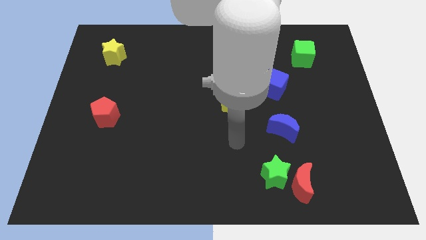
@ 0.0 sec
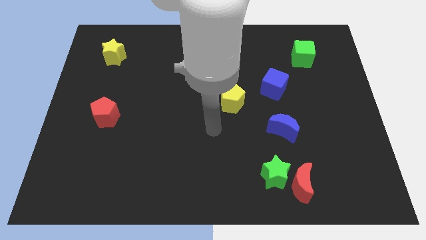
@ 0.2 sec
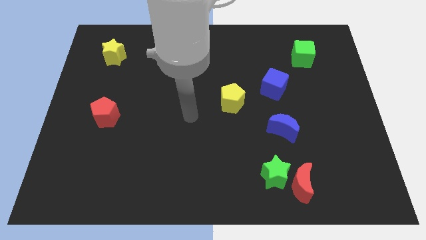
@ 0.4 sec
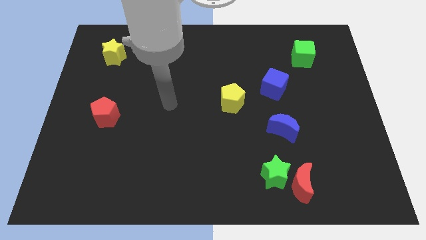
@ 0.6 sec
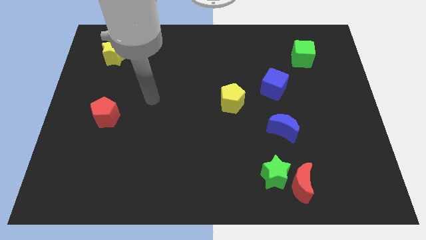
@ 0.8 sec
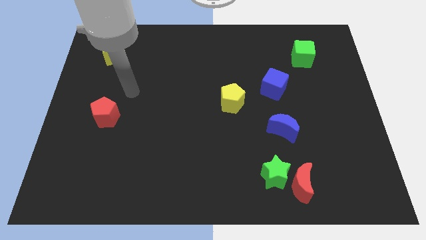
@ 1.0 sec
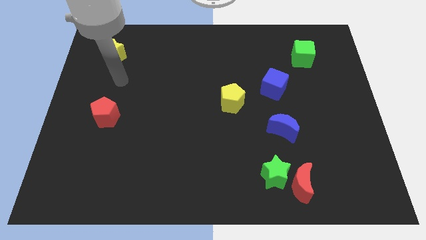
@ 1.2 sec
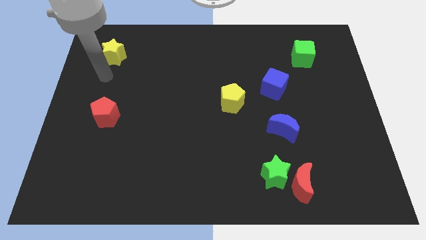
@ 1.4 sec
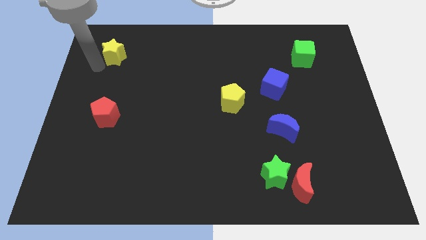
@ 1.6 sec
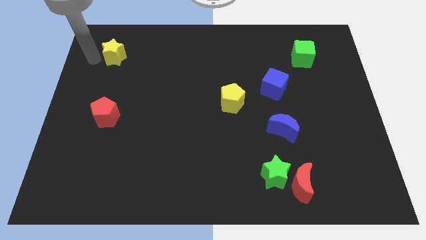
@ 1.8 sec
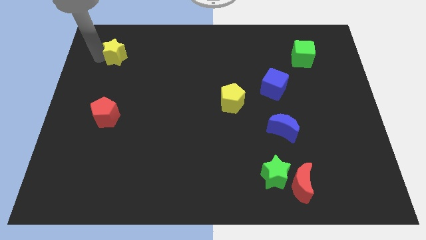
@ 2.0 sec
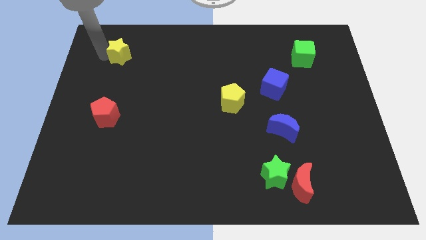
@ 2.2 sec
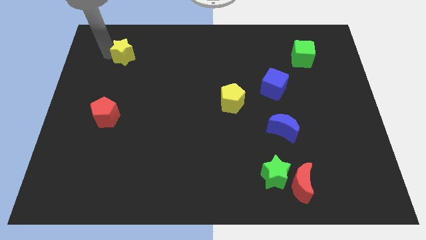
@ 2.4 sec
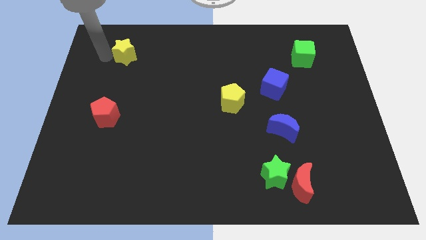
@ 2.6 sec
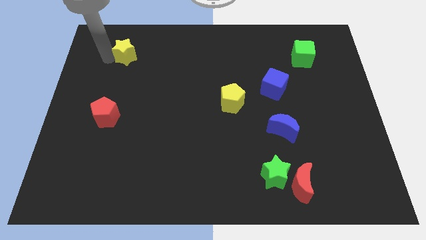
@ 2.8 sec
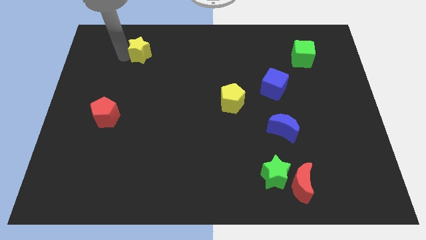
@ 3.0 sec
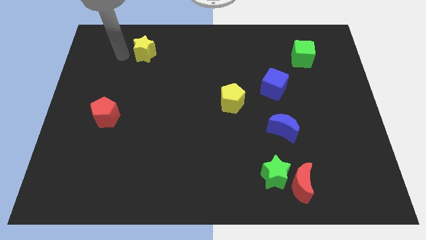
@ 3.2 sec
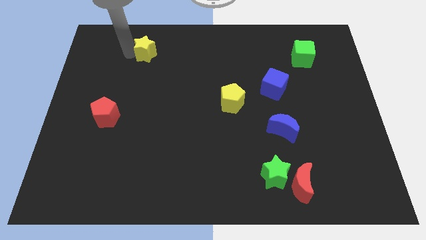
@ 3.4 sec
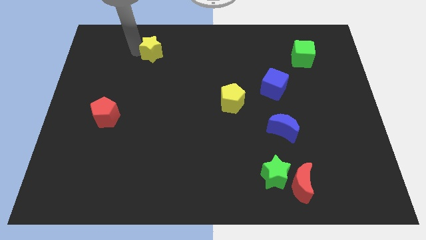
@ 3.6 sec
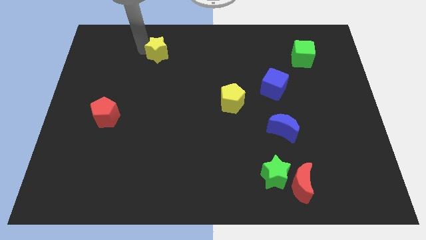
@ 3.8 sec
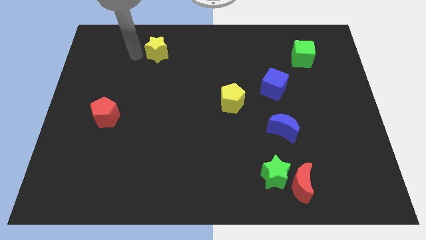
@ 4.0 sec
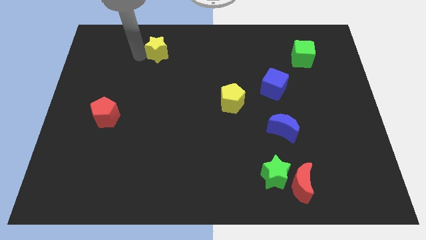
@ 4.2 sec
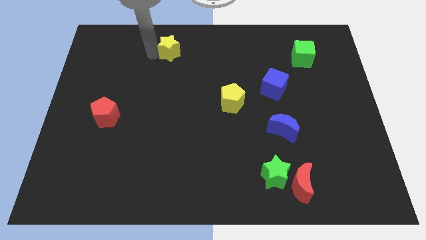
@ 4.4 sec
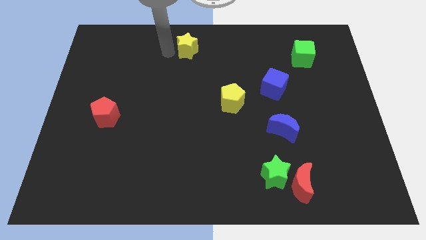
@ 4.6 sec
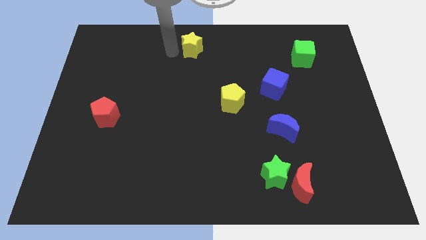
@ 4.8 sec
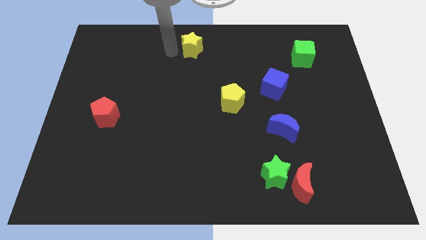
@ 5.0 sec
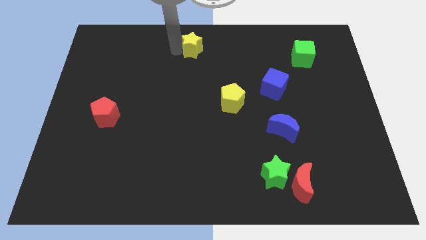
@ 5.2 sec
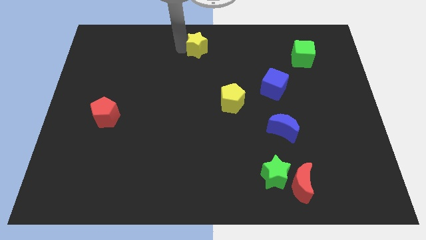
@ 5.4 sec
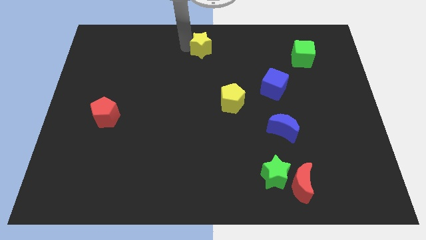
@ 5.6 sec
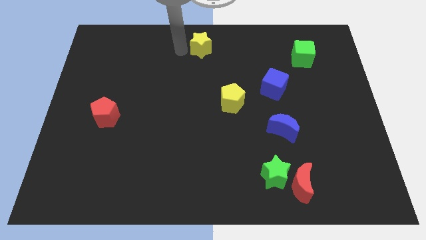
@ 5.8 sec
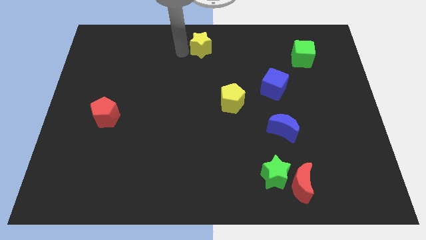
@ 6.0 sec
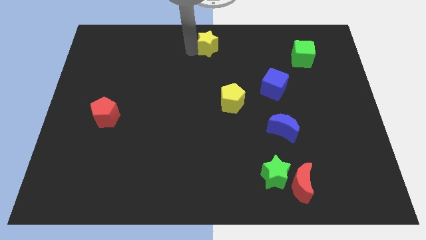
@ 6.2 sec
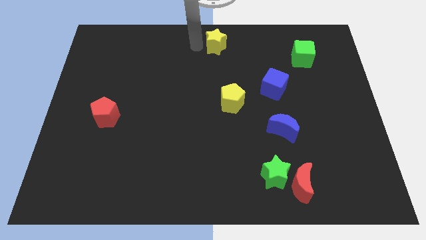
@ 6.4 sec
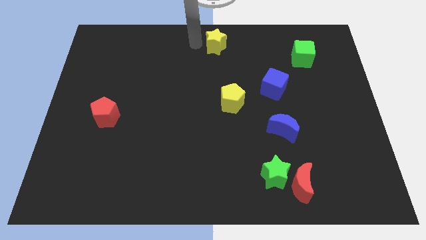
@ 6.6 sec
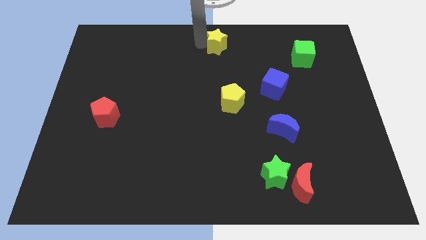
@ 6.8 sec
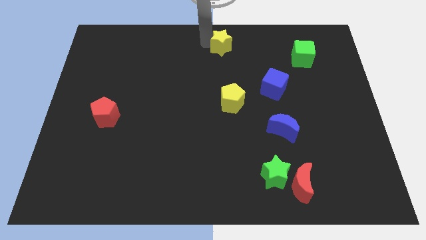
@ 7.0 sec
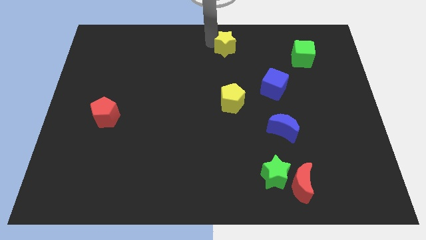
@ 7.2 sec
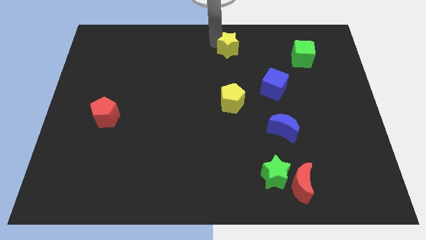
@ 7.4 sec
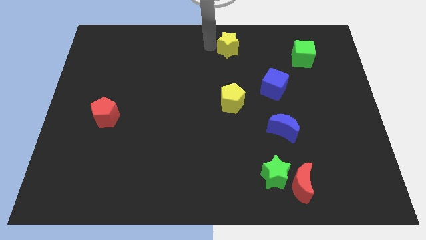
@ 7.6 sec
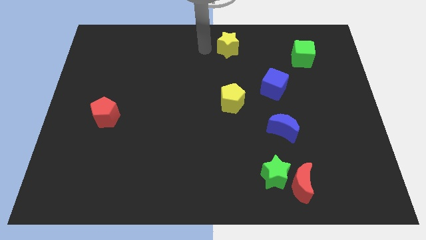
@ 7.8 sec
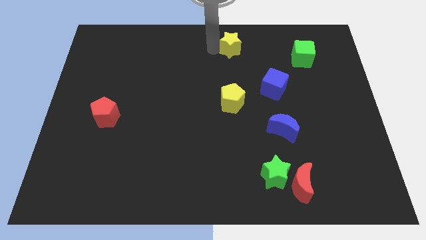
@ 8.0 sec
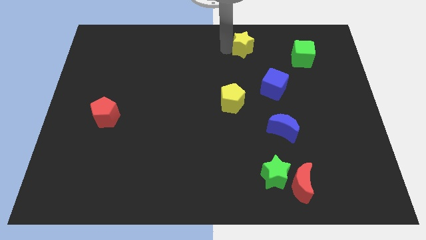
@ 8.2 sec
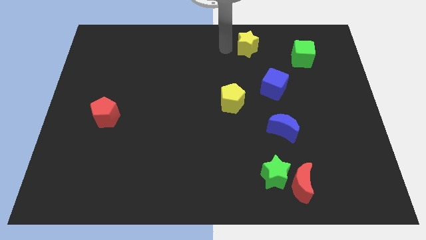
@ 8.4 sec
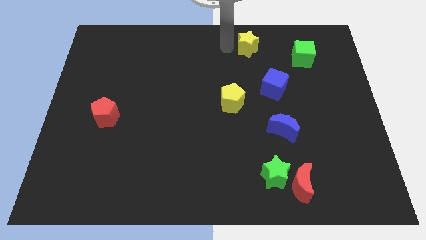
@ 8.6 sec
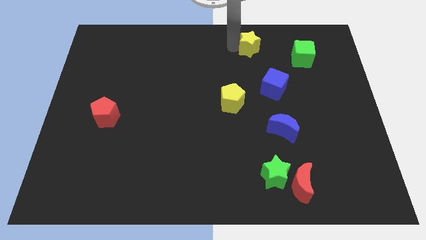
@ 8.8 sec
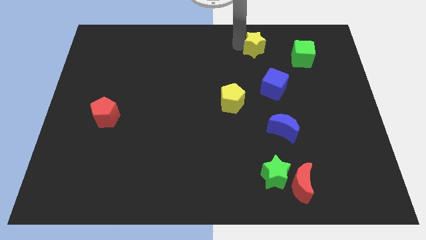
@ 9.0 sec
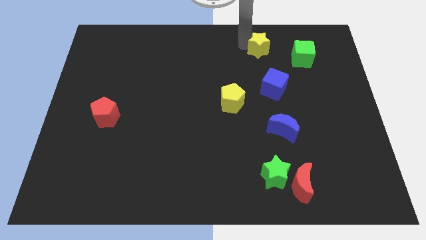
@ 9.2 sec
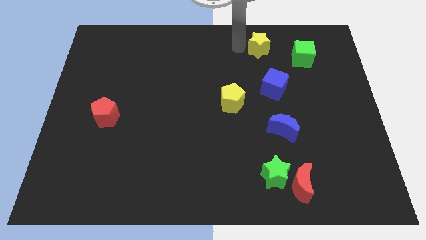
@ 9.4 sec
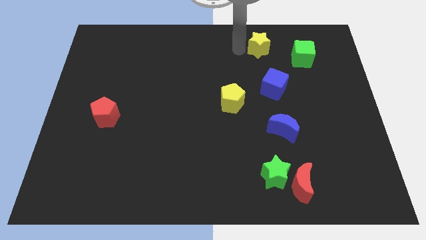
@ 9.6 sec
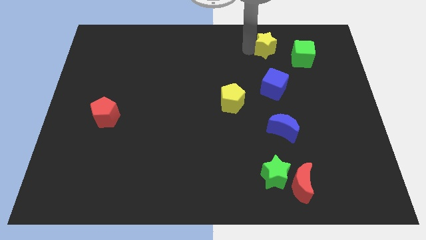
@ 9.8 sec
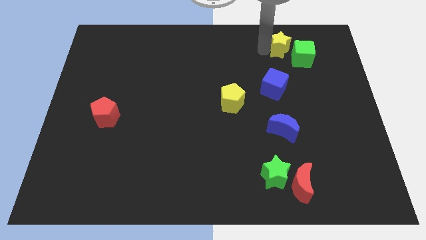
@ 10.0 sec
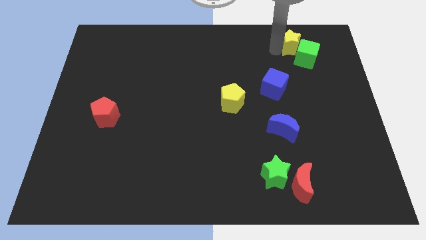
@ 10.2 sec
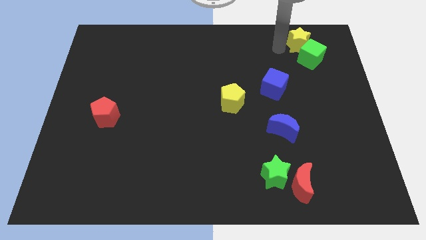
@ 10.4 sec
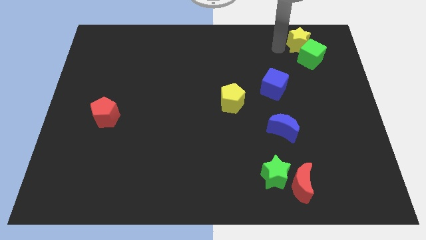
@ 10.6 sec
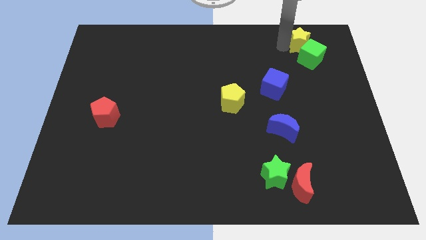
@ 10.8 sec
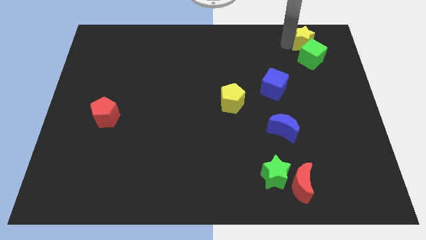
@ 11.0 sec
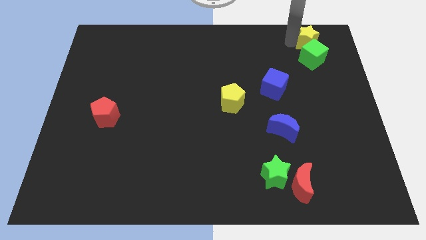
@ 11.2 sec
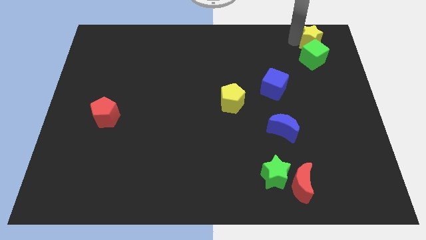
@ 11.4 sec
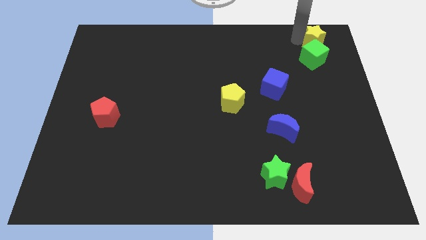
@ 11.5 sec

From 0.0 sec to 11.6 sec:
push the yellow star to the top right

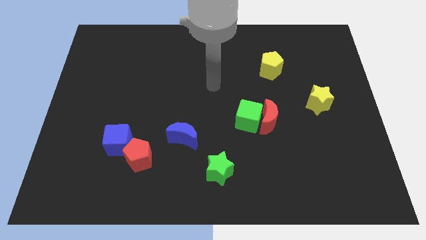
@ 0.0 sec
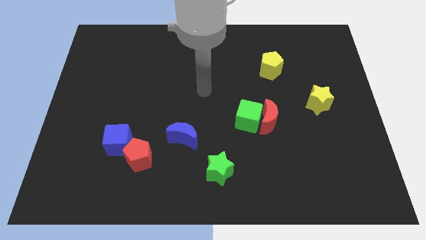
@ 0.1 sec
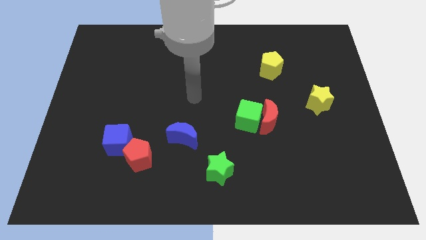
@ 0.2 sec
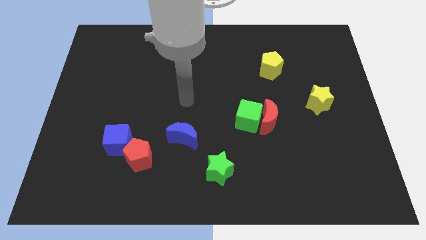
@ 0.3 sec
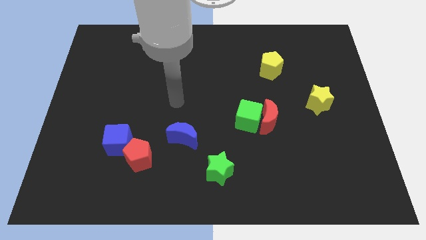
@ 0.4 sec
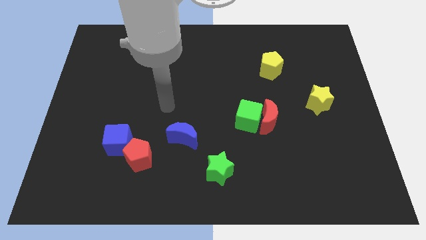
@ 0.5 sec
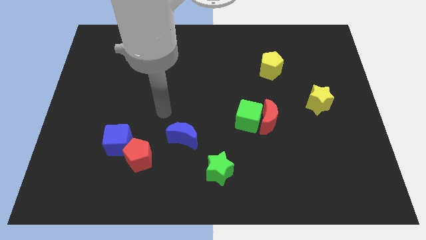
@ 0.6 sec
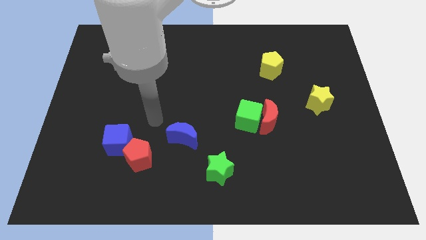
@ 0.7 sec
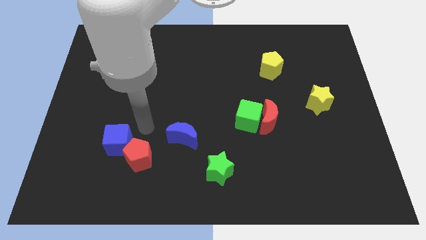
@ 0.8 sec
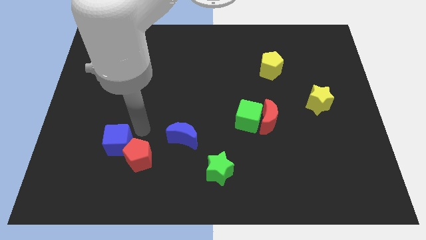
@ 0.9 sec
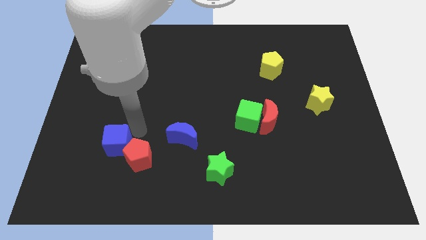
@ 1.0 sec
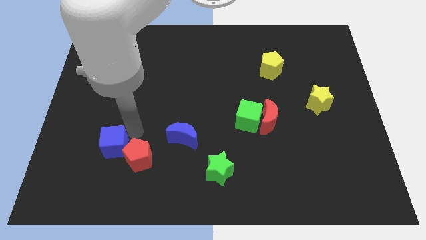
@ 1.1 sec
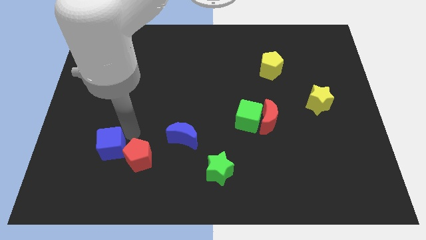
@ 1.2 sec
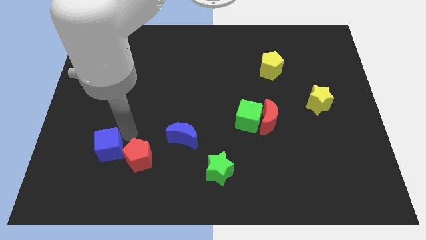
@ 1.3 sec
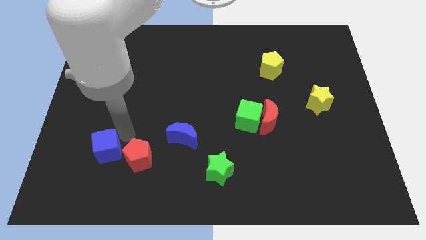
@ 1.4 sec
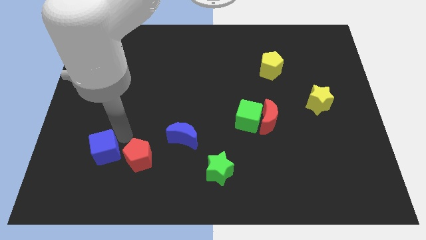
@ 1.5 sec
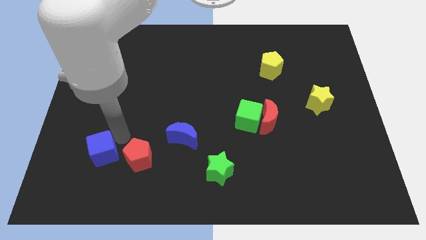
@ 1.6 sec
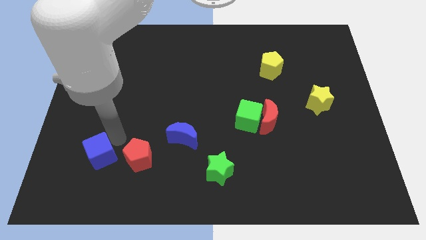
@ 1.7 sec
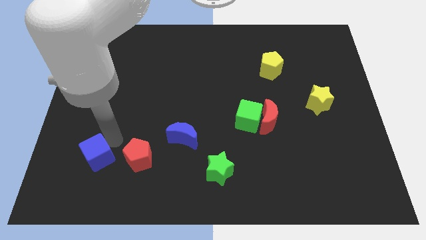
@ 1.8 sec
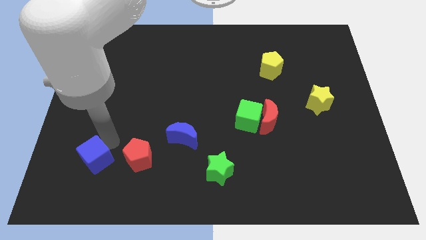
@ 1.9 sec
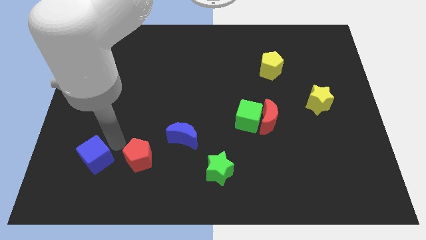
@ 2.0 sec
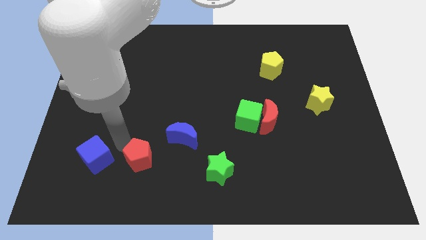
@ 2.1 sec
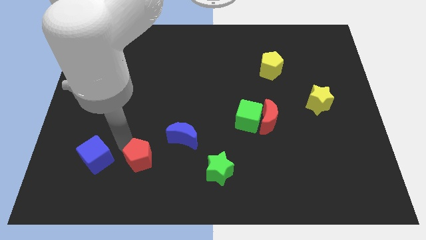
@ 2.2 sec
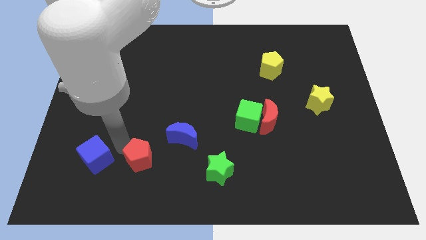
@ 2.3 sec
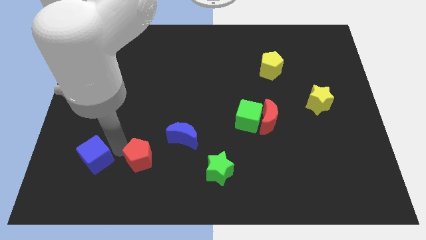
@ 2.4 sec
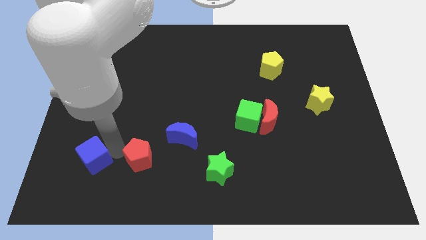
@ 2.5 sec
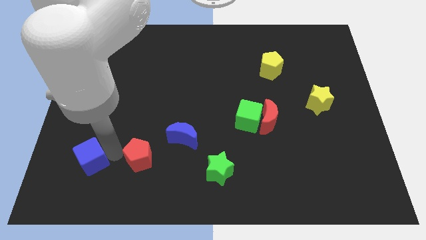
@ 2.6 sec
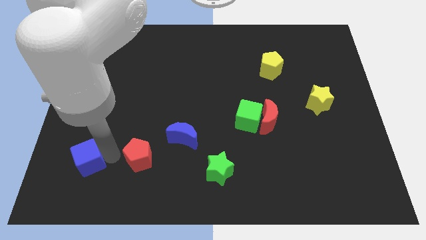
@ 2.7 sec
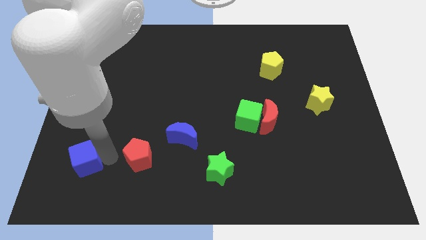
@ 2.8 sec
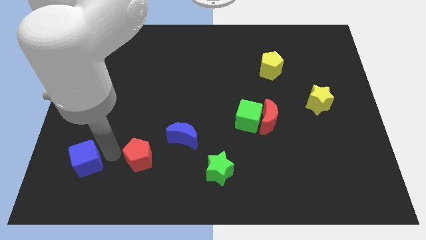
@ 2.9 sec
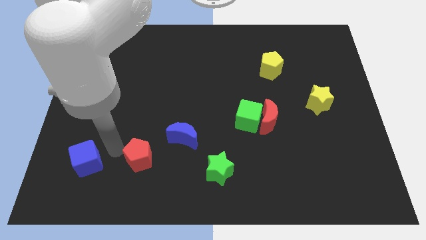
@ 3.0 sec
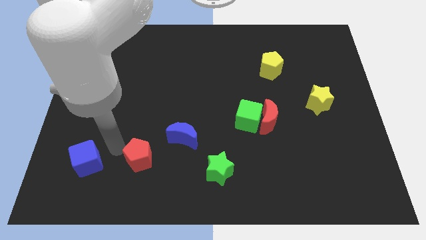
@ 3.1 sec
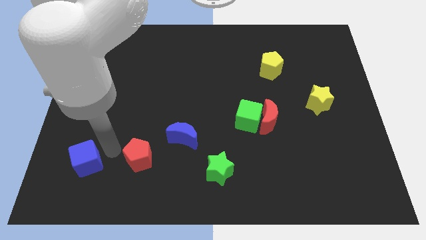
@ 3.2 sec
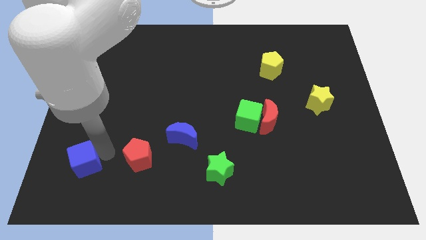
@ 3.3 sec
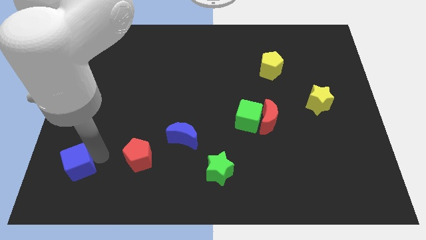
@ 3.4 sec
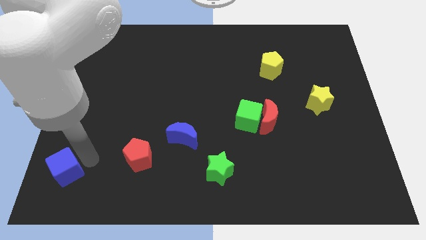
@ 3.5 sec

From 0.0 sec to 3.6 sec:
slide the blue cube to the bottom left of the board
